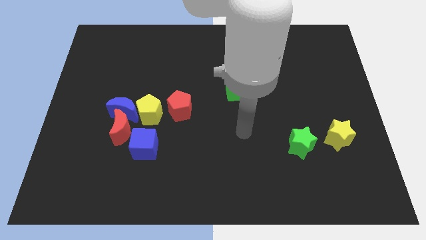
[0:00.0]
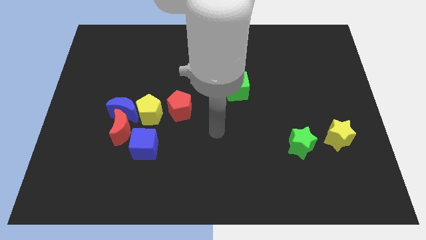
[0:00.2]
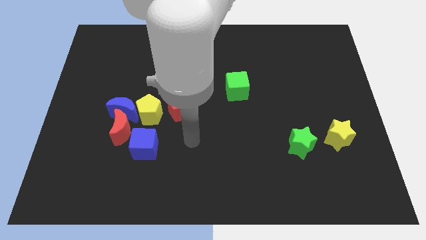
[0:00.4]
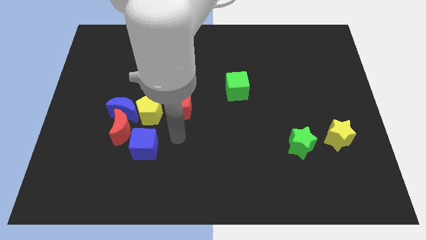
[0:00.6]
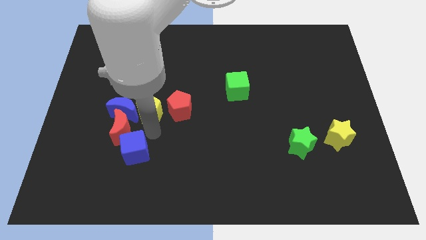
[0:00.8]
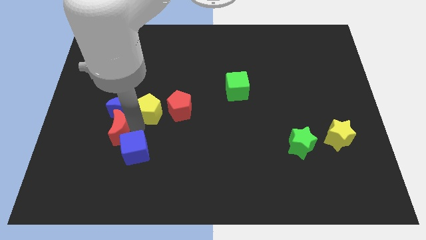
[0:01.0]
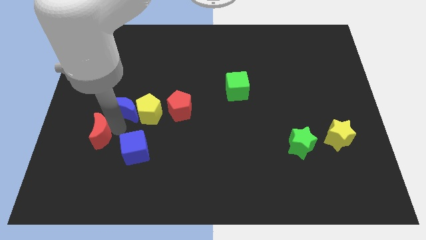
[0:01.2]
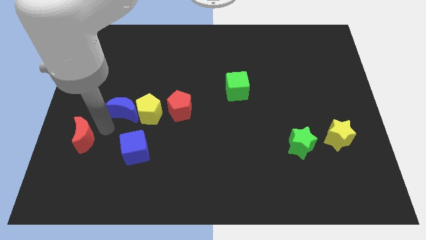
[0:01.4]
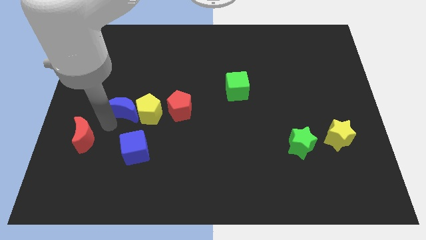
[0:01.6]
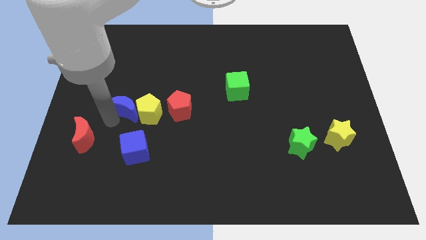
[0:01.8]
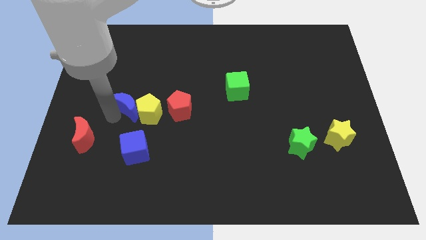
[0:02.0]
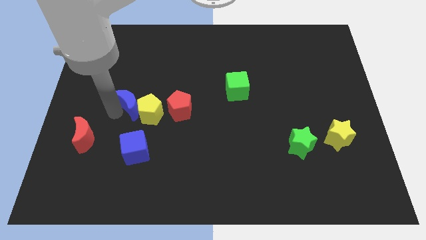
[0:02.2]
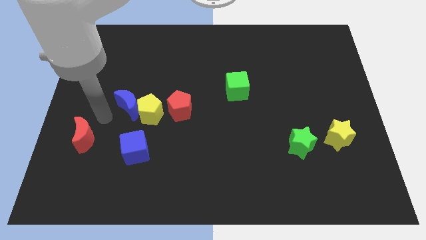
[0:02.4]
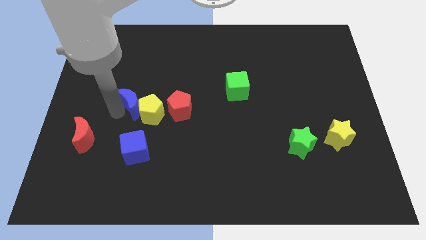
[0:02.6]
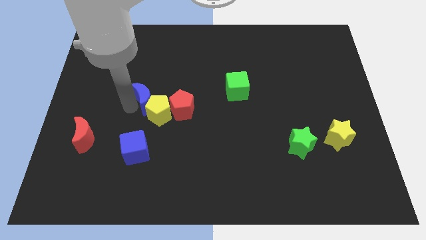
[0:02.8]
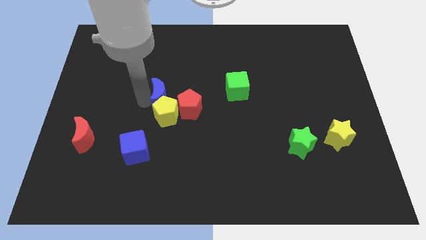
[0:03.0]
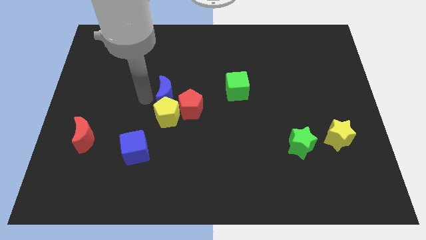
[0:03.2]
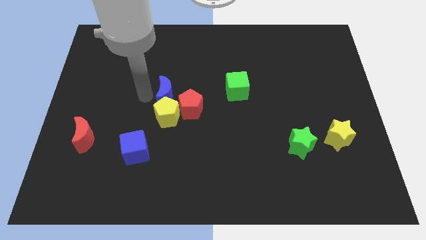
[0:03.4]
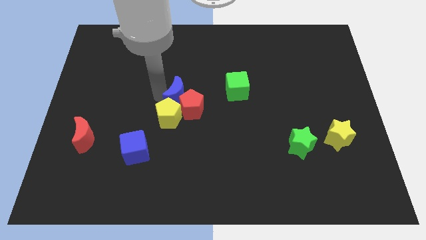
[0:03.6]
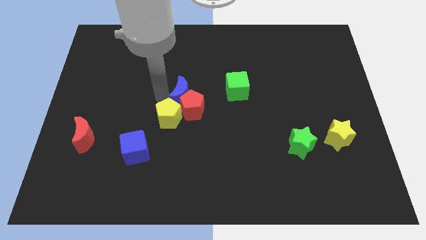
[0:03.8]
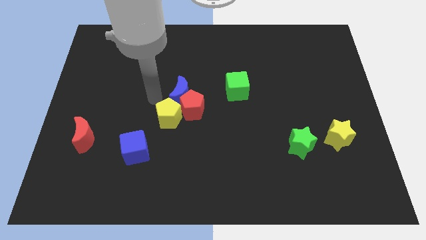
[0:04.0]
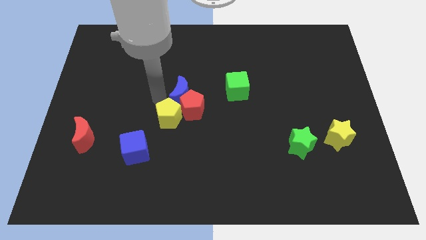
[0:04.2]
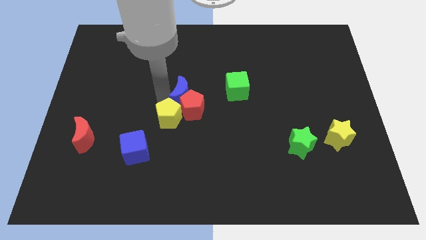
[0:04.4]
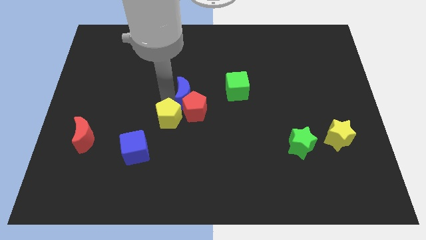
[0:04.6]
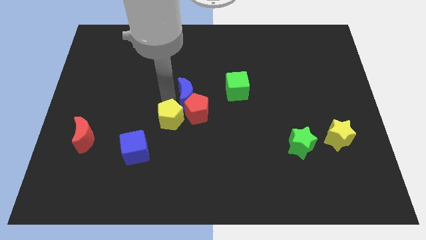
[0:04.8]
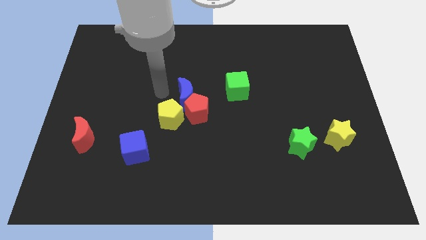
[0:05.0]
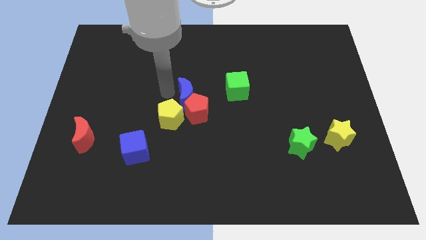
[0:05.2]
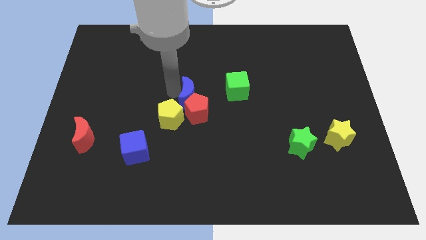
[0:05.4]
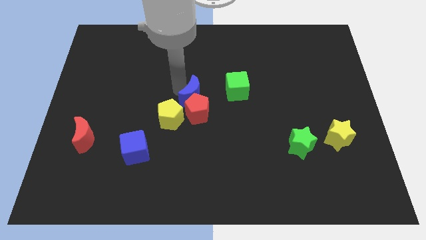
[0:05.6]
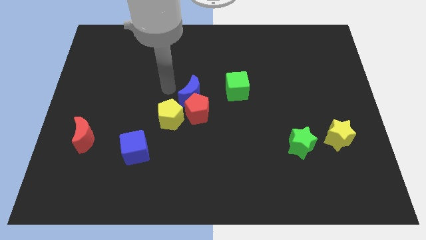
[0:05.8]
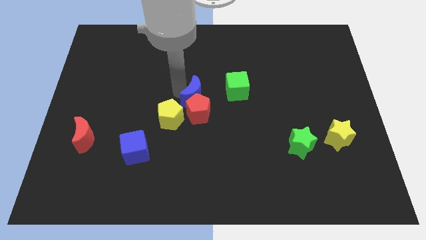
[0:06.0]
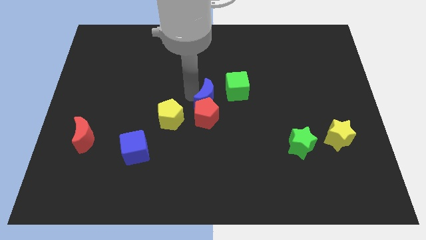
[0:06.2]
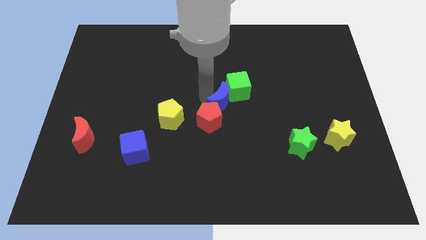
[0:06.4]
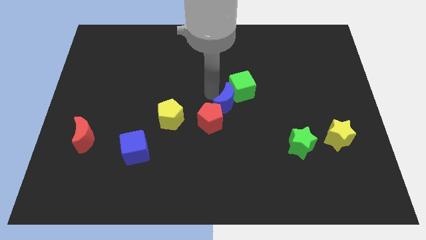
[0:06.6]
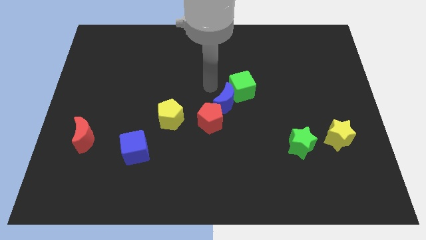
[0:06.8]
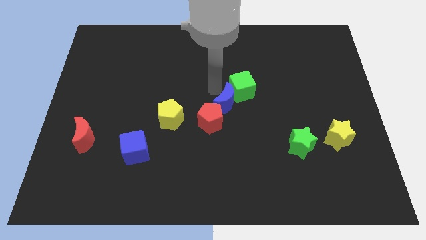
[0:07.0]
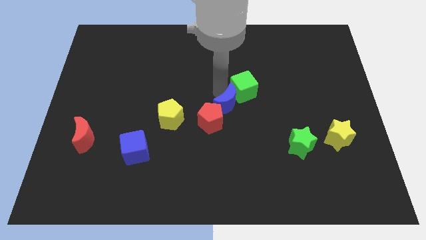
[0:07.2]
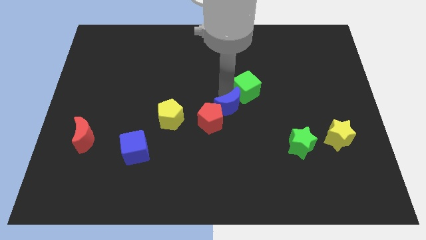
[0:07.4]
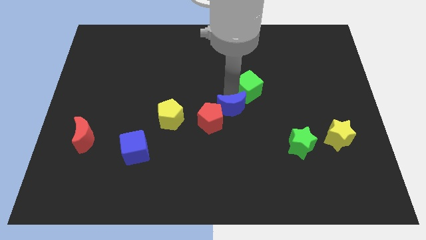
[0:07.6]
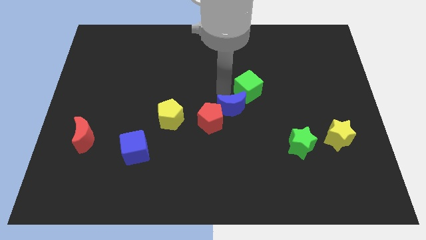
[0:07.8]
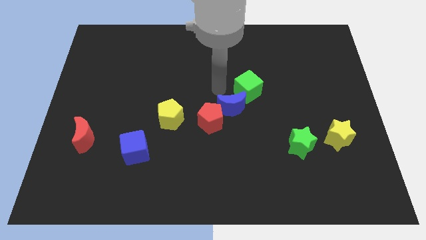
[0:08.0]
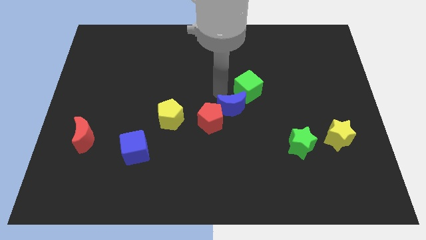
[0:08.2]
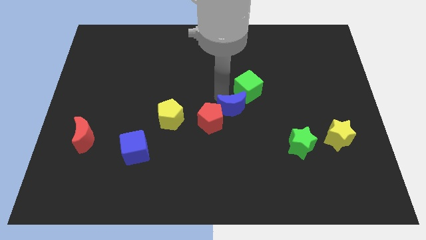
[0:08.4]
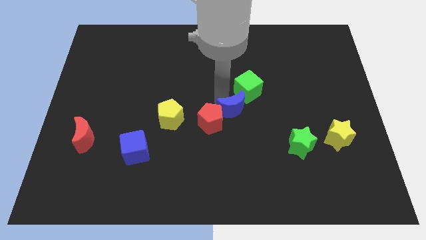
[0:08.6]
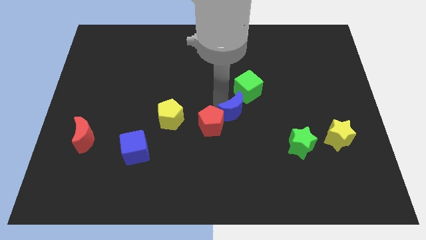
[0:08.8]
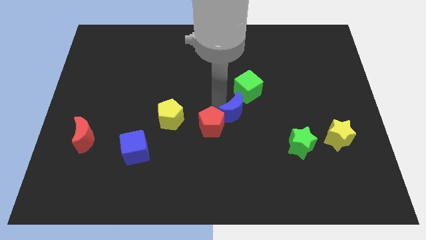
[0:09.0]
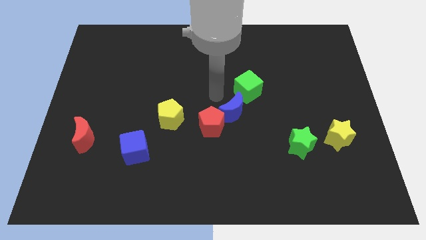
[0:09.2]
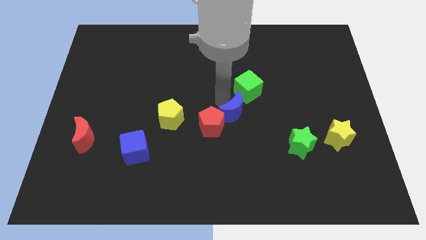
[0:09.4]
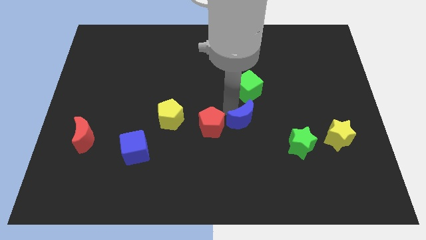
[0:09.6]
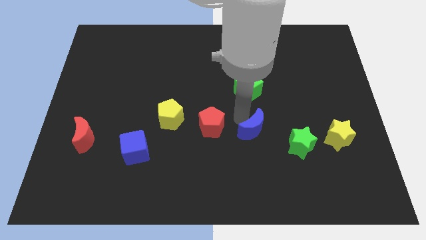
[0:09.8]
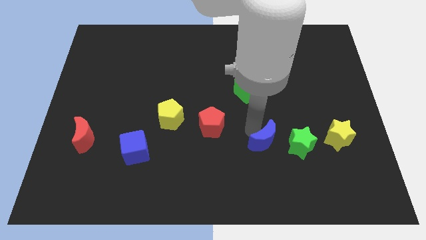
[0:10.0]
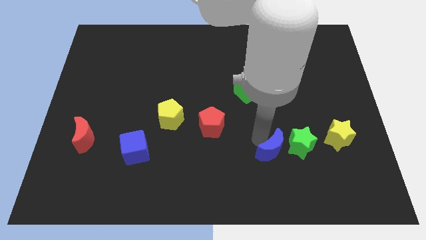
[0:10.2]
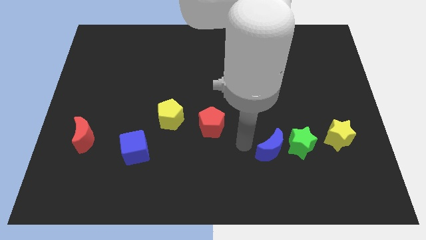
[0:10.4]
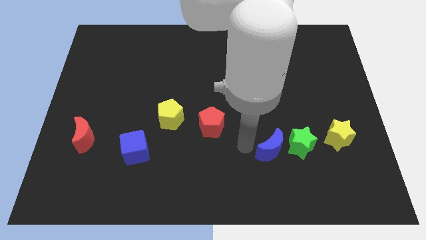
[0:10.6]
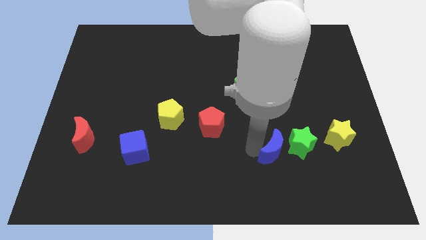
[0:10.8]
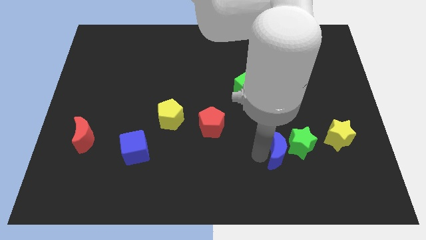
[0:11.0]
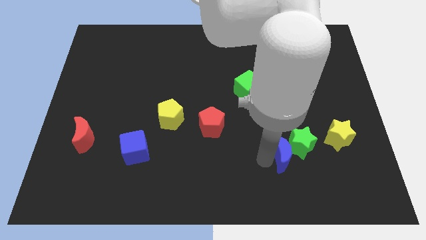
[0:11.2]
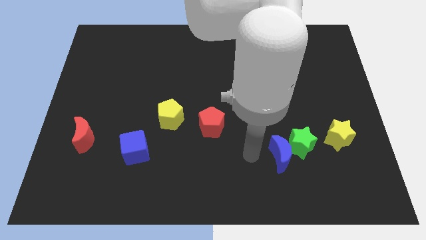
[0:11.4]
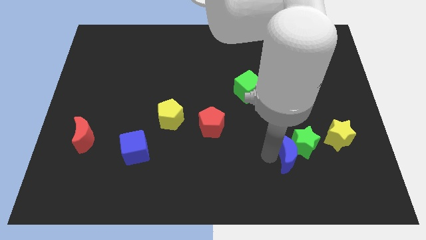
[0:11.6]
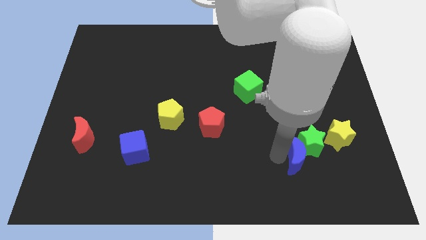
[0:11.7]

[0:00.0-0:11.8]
put the blue moon diagonally down and to the left of the yellow star

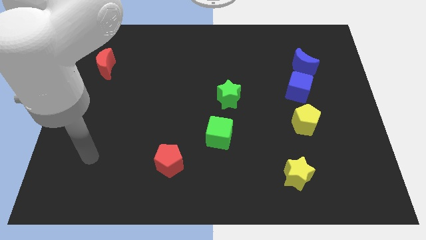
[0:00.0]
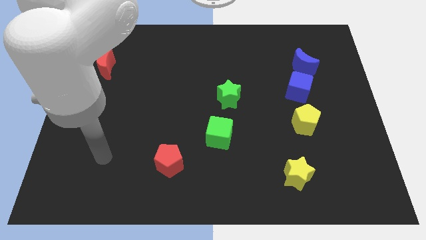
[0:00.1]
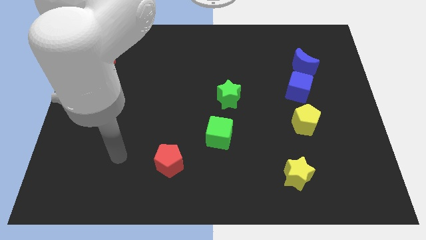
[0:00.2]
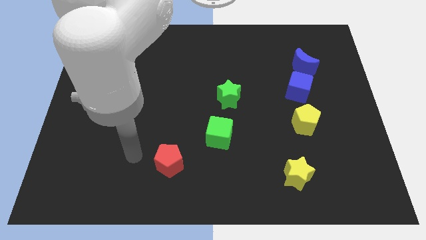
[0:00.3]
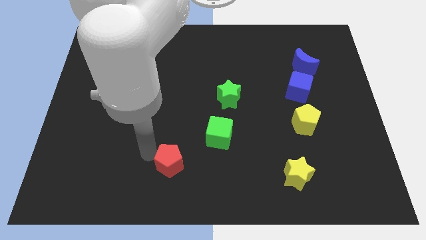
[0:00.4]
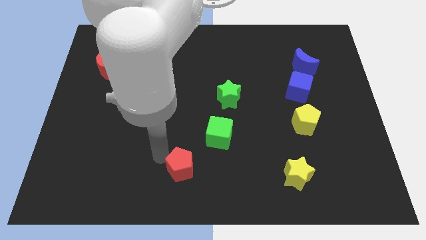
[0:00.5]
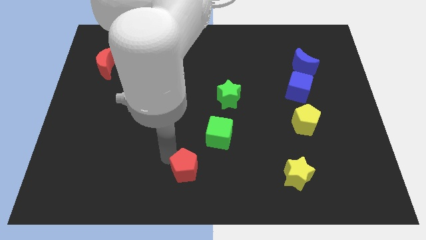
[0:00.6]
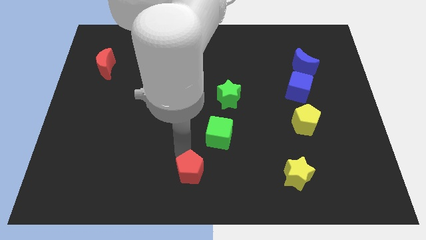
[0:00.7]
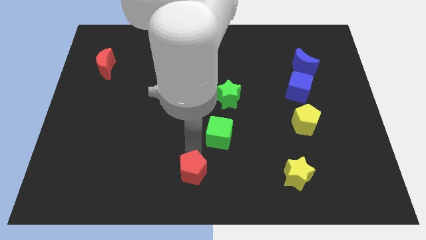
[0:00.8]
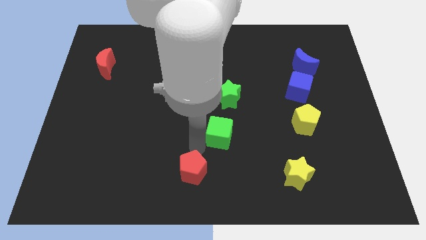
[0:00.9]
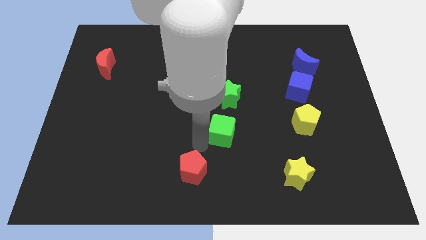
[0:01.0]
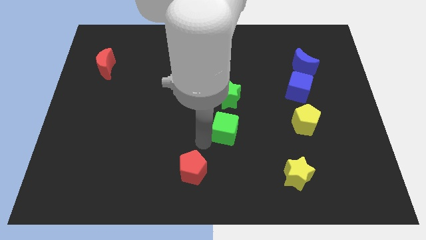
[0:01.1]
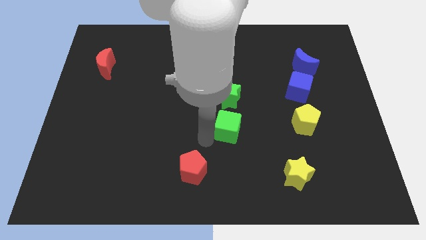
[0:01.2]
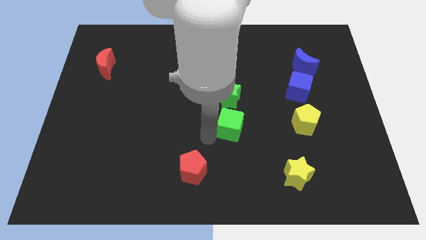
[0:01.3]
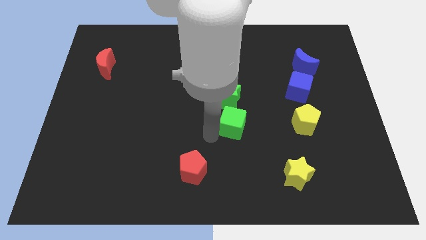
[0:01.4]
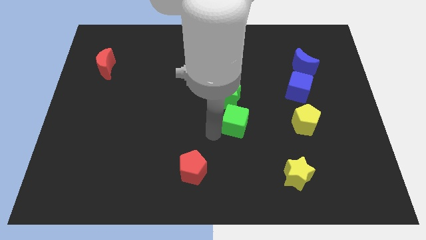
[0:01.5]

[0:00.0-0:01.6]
put the green cube diagonally down and to the right of the green star
